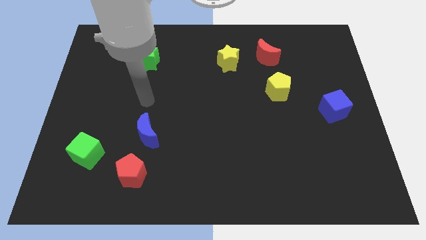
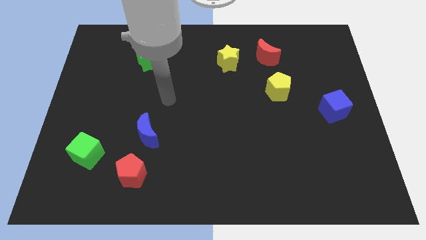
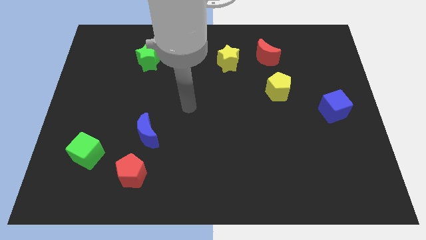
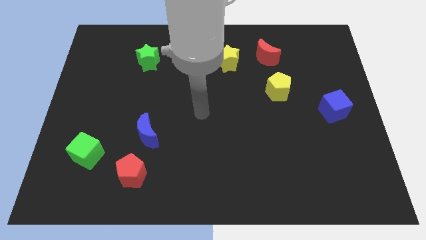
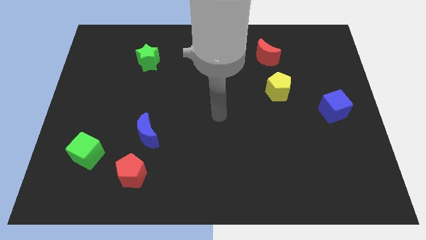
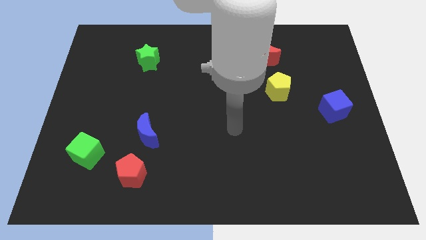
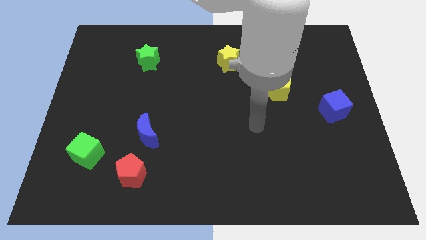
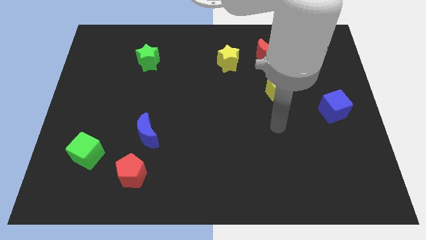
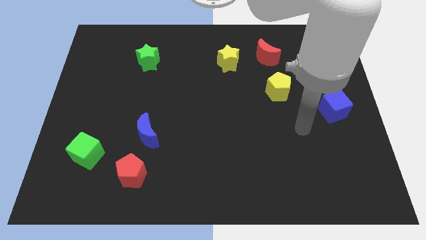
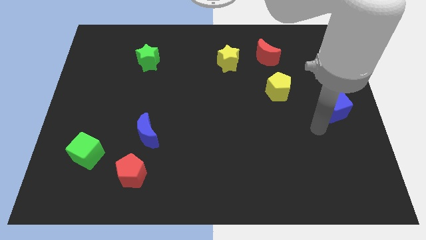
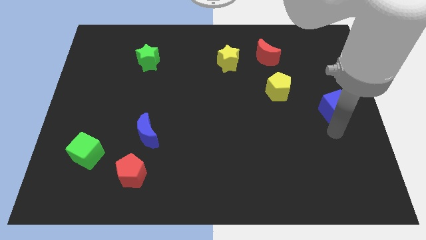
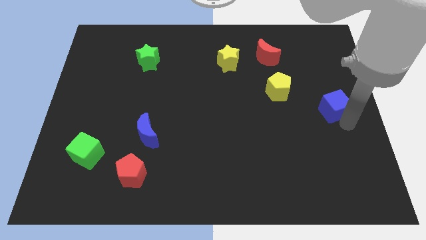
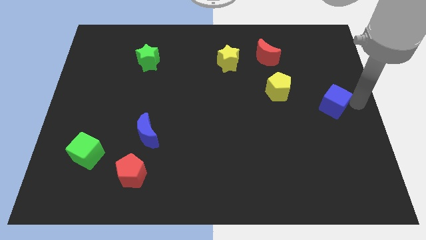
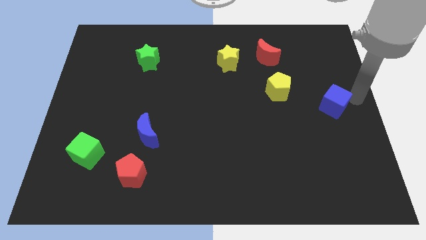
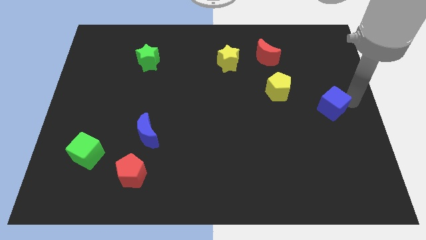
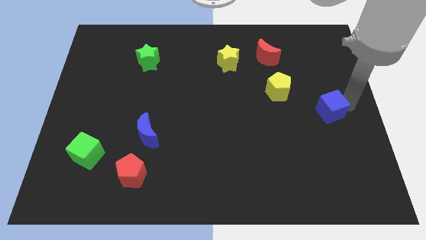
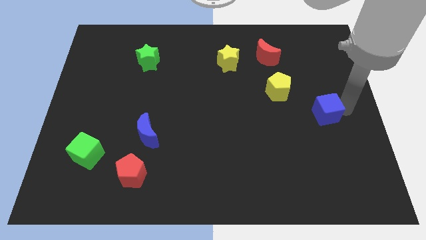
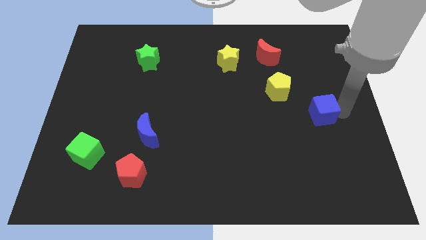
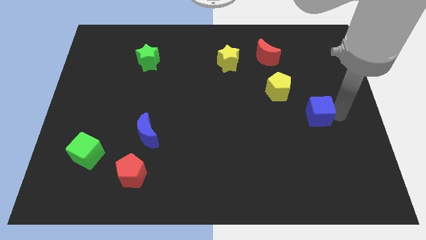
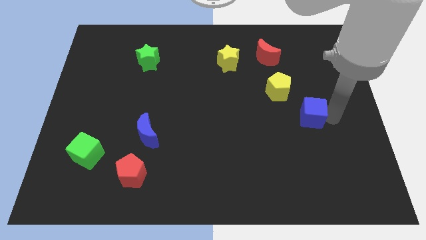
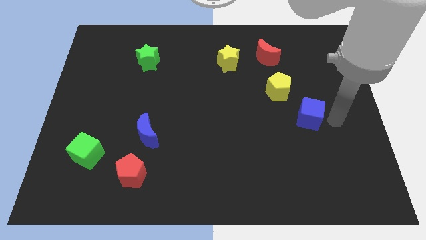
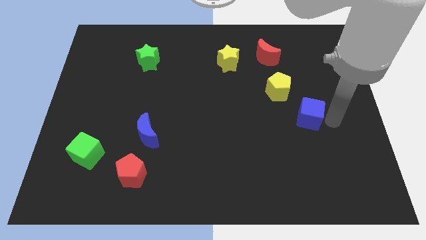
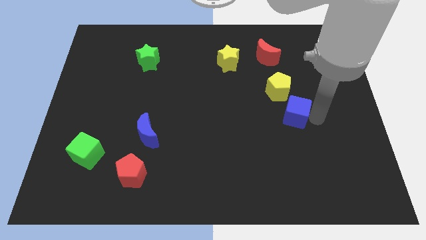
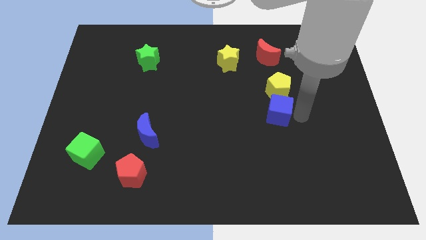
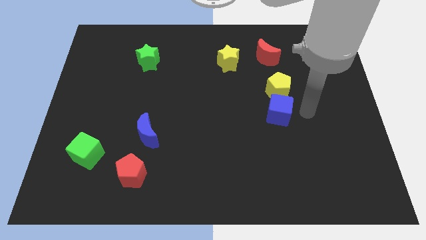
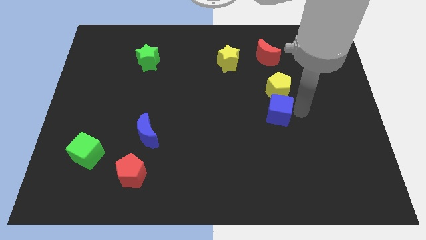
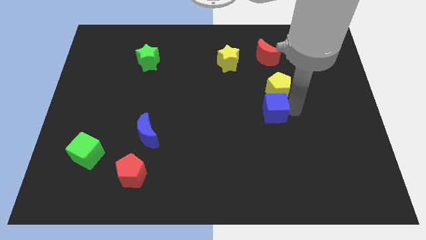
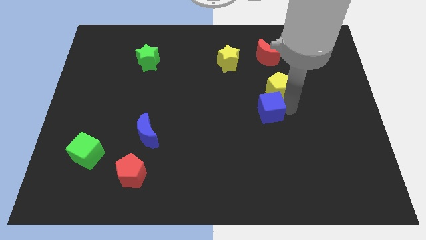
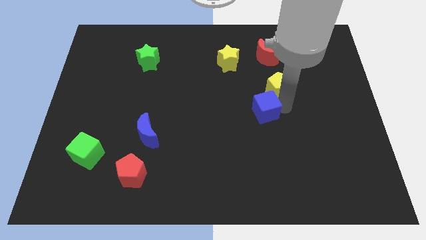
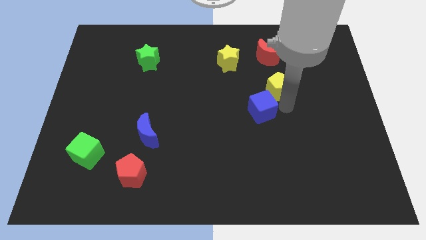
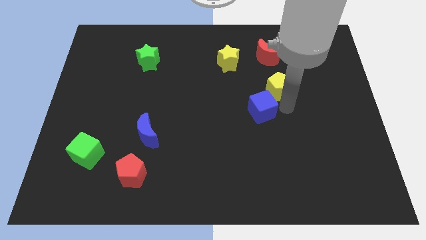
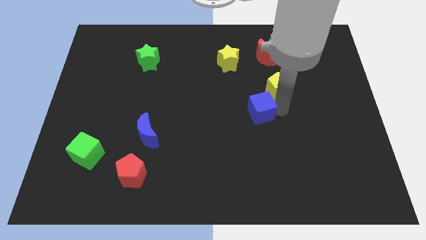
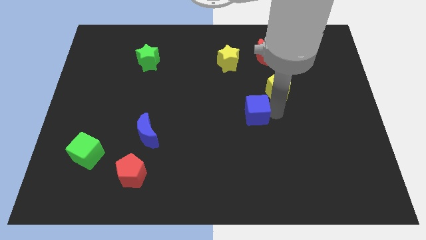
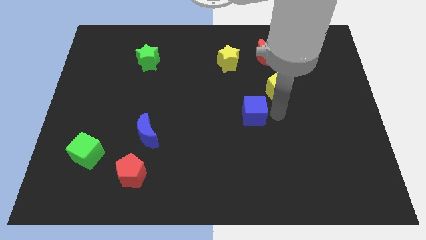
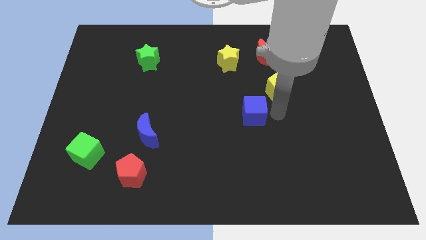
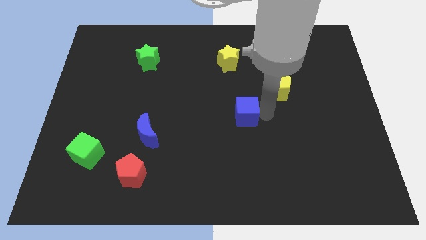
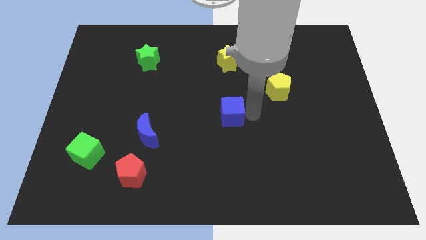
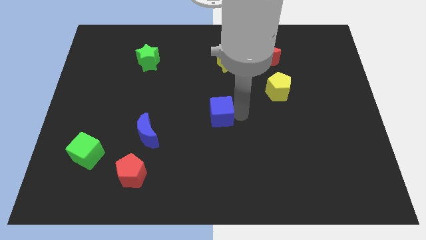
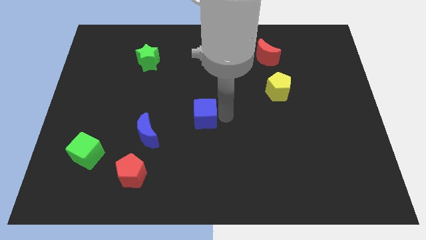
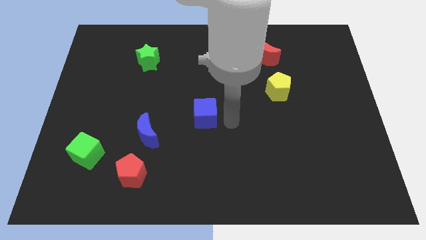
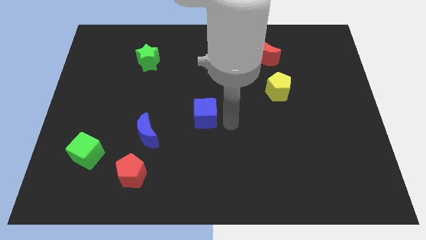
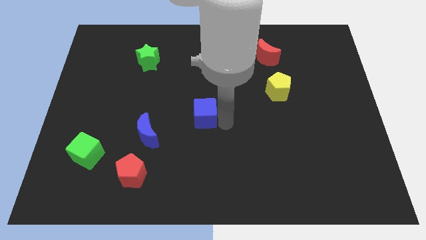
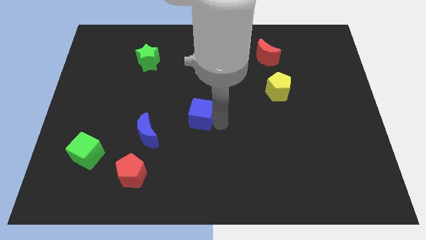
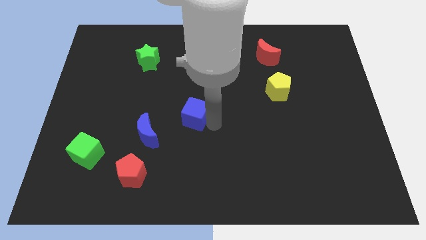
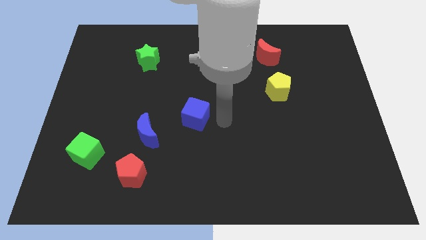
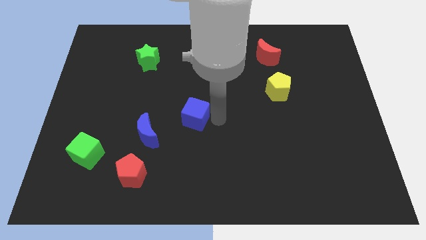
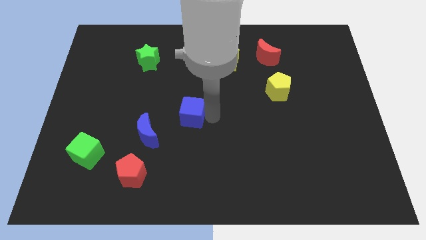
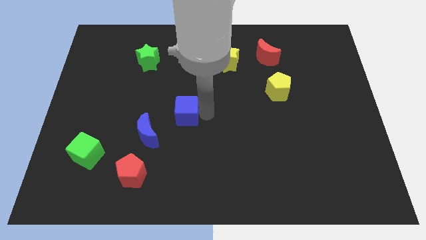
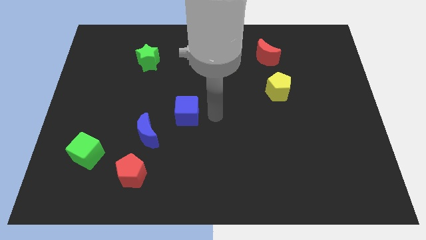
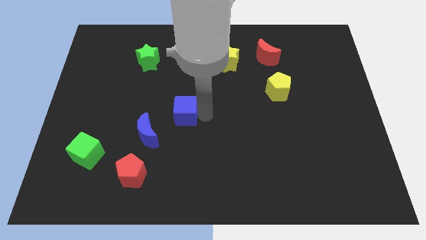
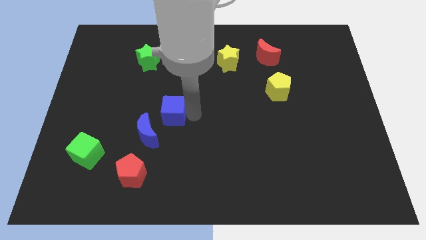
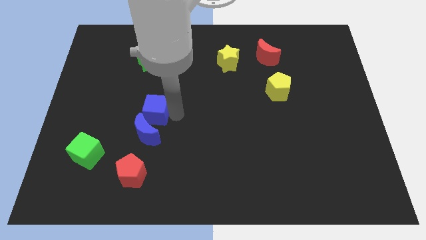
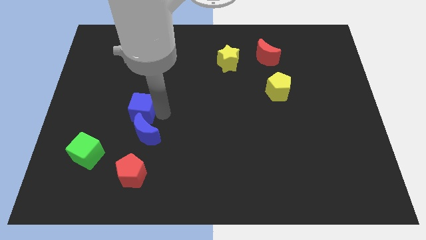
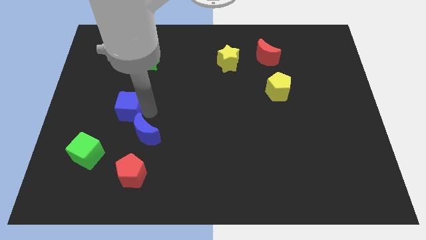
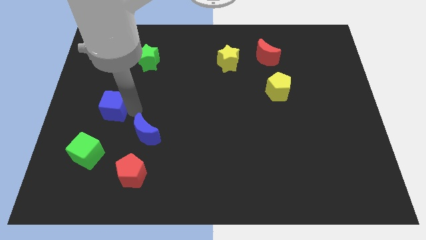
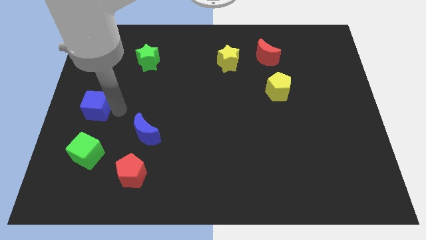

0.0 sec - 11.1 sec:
push the blue cube to the center left

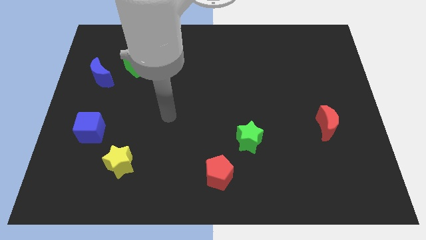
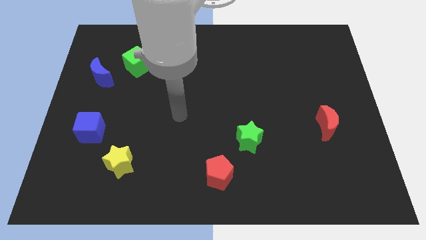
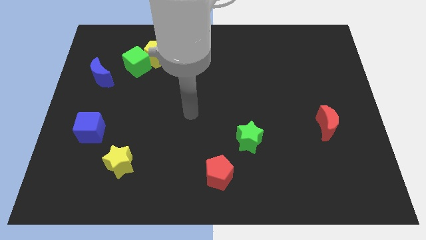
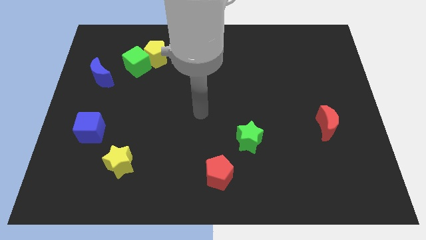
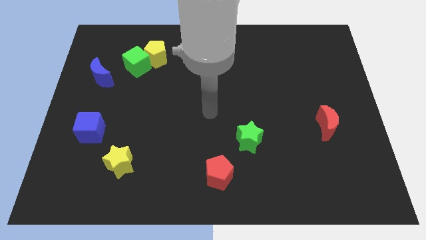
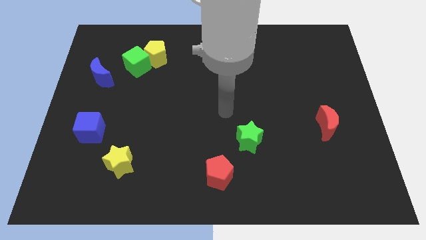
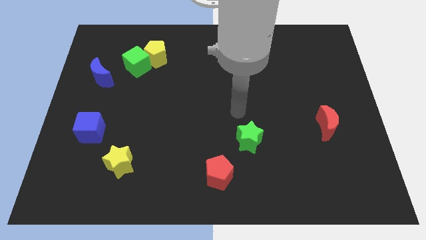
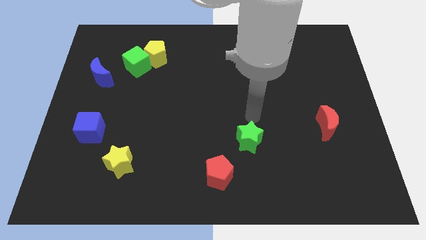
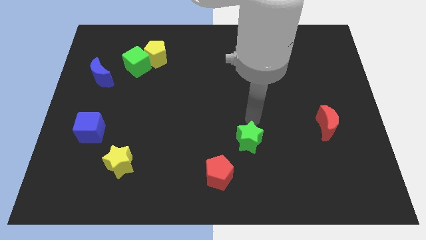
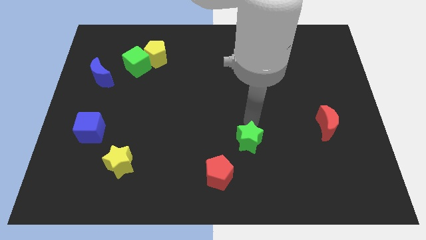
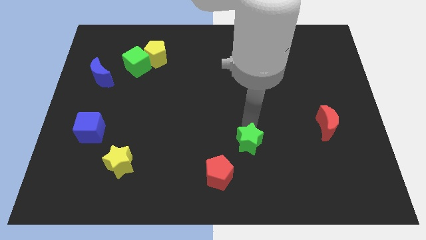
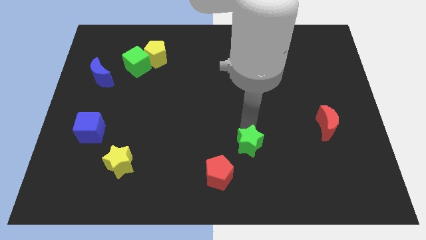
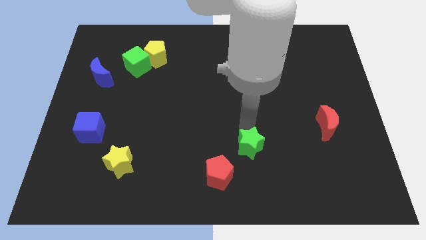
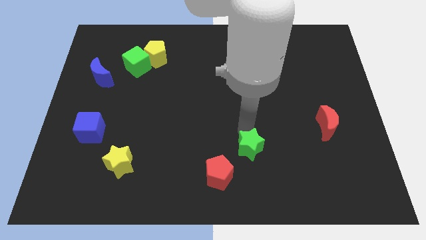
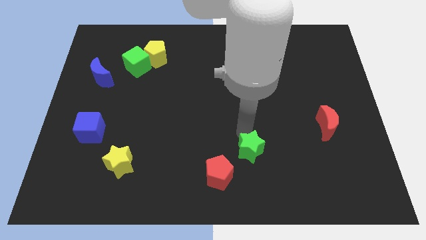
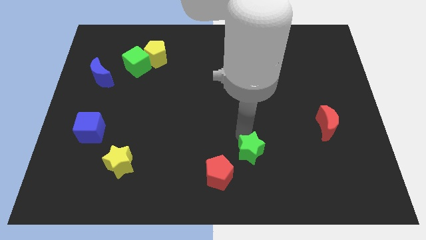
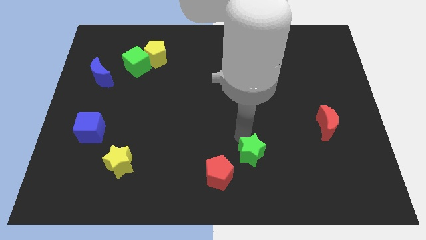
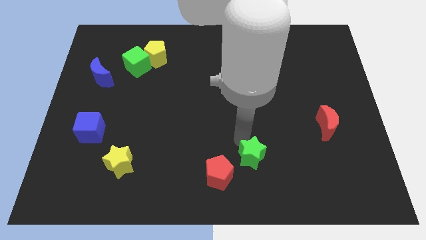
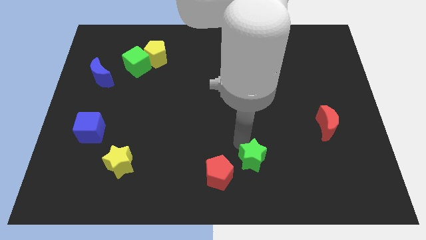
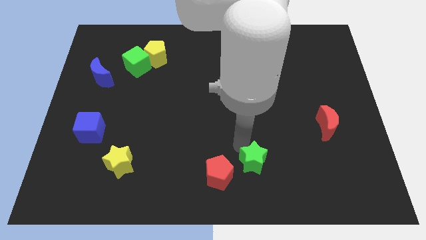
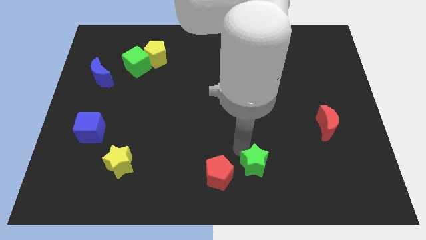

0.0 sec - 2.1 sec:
put the green star to the bottom
